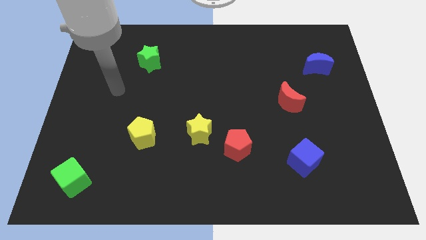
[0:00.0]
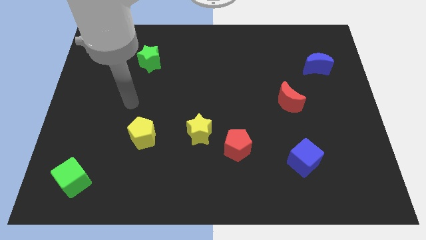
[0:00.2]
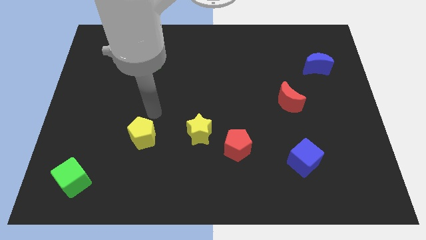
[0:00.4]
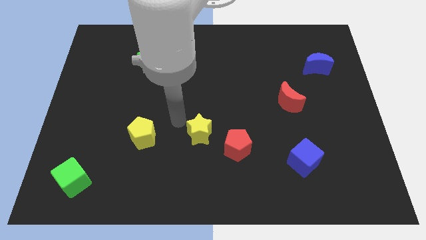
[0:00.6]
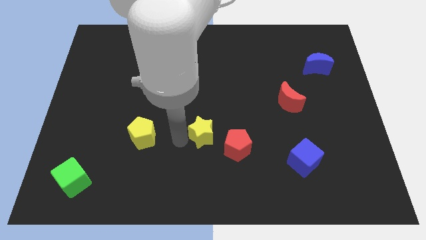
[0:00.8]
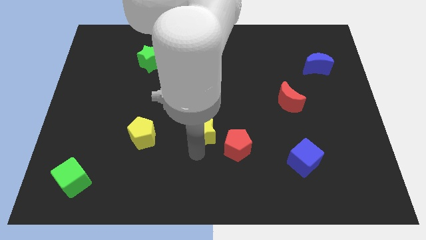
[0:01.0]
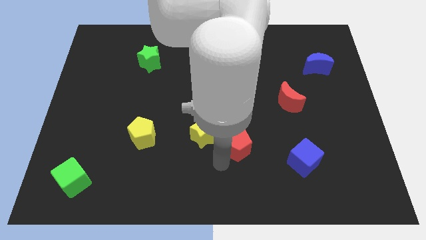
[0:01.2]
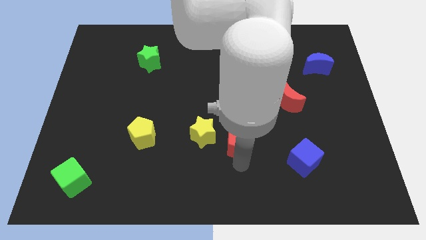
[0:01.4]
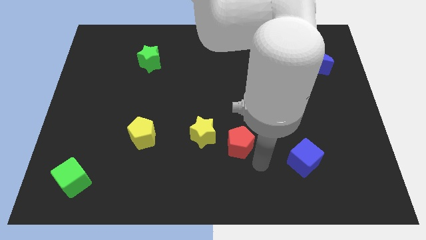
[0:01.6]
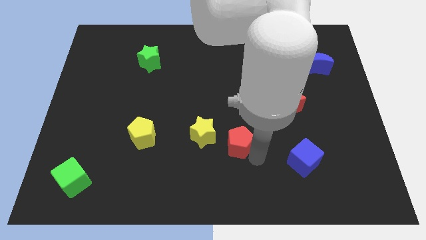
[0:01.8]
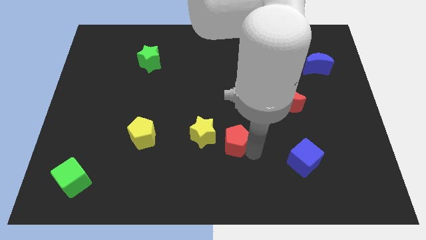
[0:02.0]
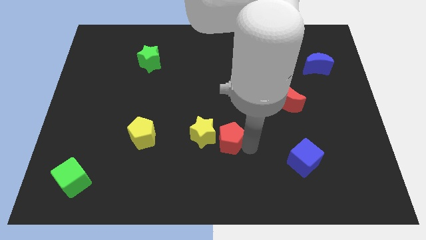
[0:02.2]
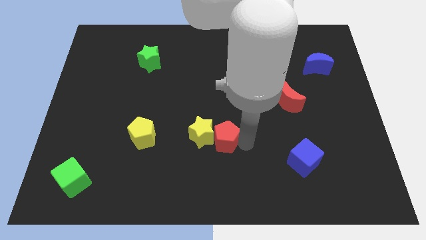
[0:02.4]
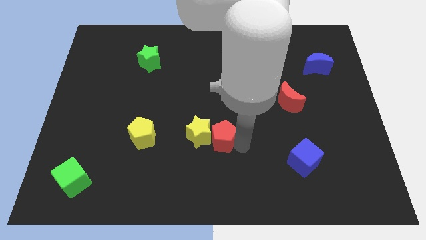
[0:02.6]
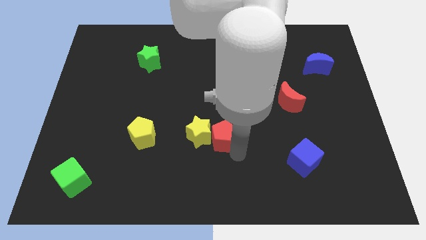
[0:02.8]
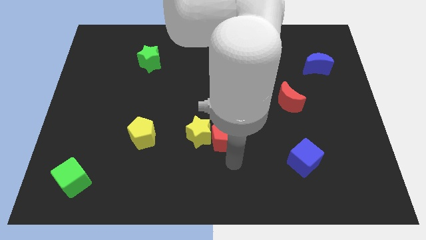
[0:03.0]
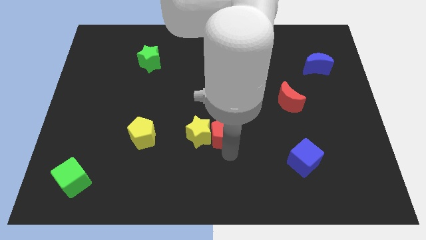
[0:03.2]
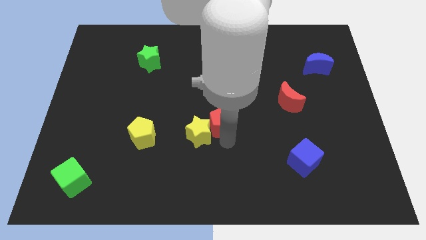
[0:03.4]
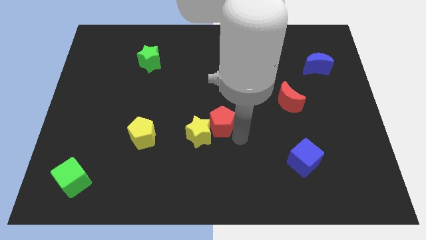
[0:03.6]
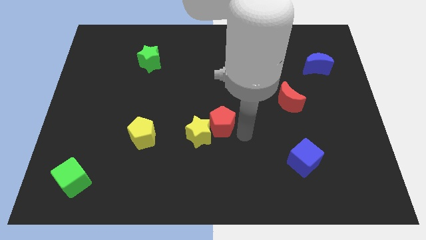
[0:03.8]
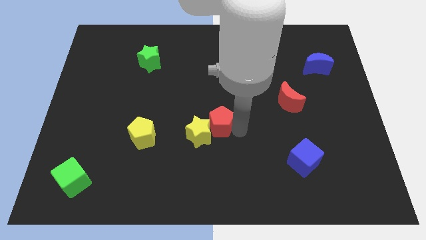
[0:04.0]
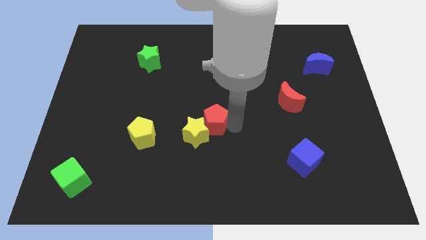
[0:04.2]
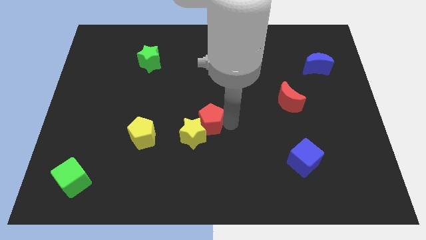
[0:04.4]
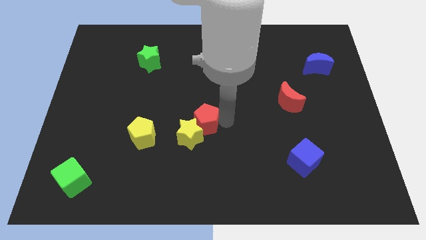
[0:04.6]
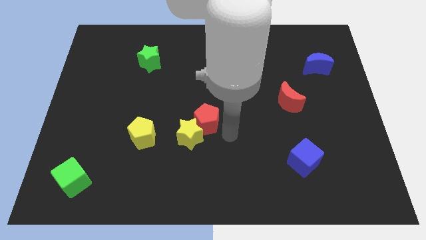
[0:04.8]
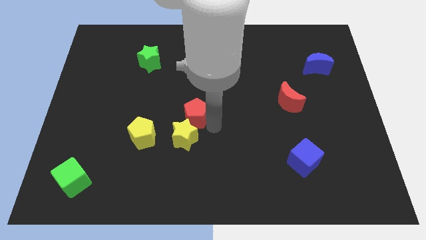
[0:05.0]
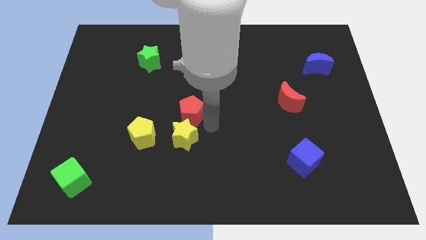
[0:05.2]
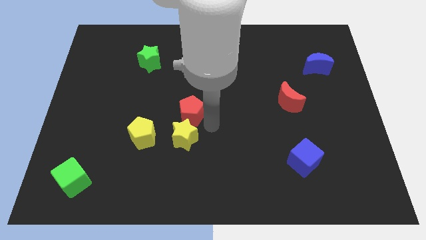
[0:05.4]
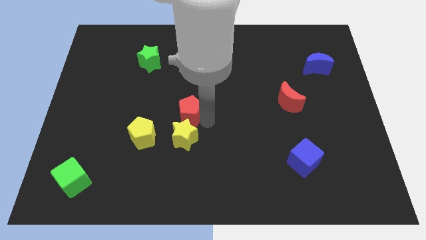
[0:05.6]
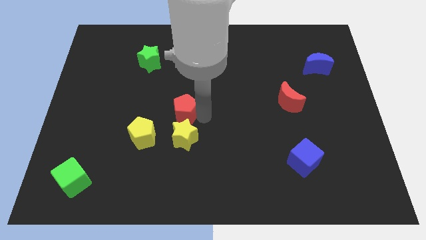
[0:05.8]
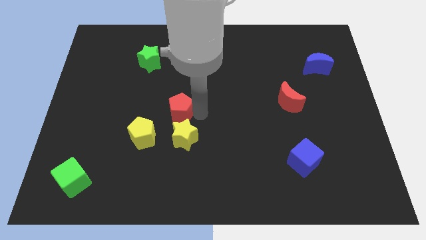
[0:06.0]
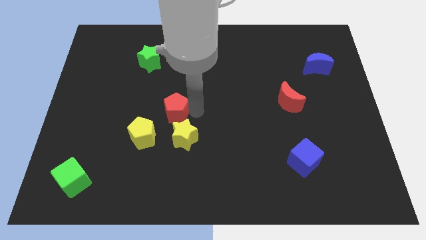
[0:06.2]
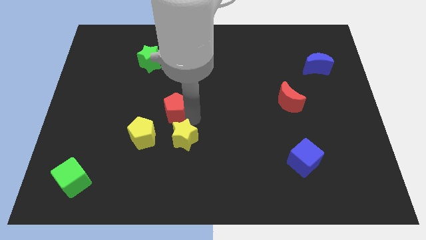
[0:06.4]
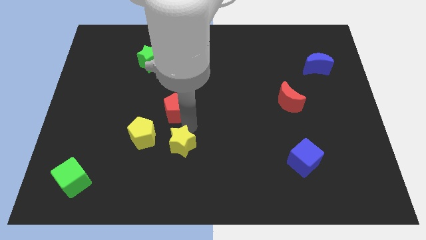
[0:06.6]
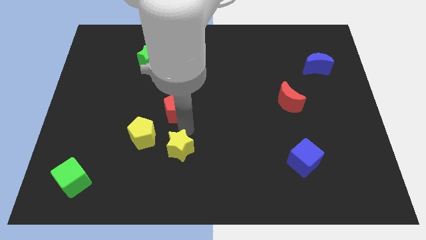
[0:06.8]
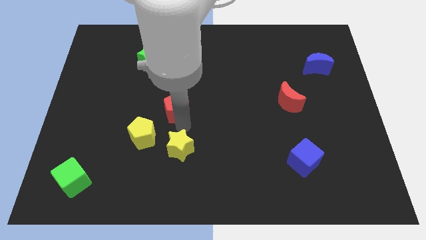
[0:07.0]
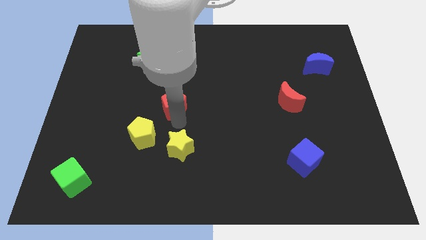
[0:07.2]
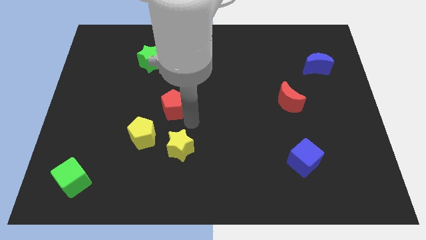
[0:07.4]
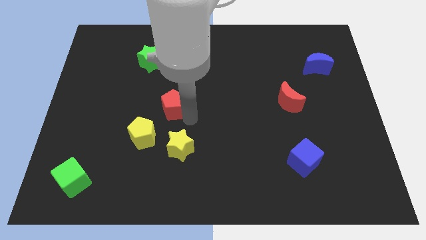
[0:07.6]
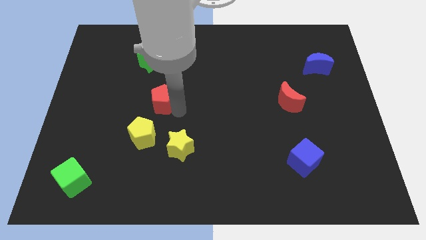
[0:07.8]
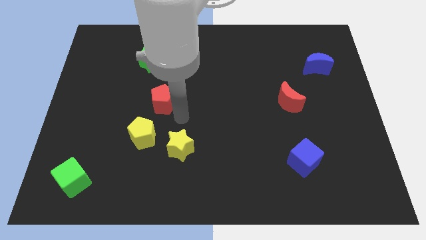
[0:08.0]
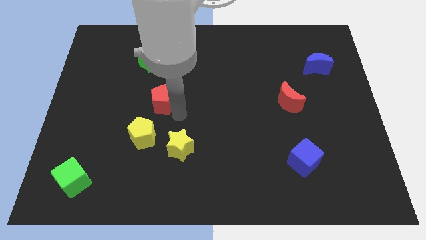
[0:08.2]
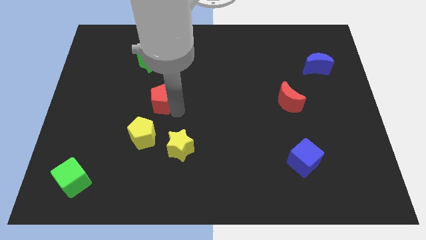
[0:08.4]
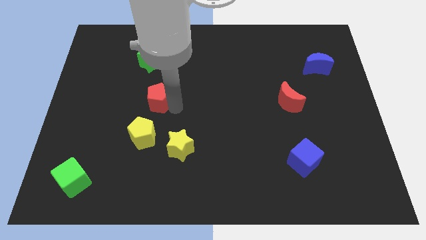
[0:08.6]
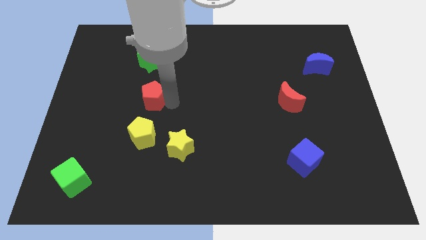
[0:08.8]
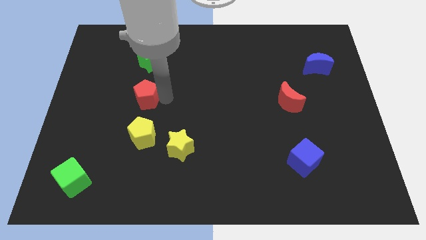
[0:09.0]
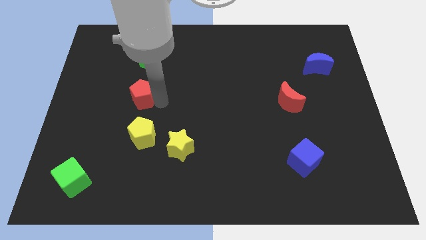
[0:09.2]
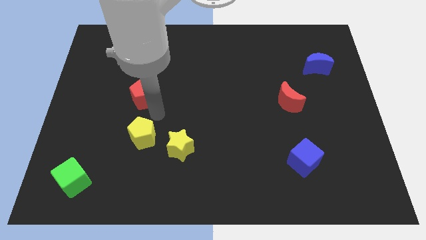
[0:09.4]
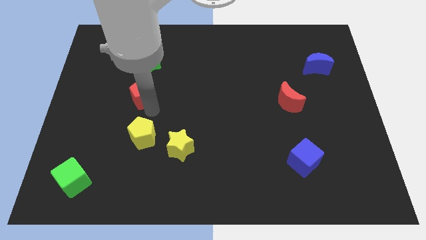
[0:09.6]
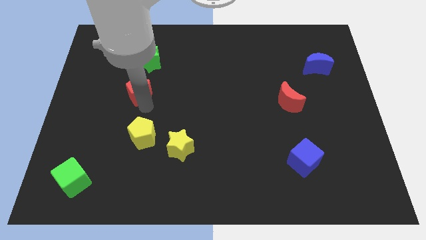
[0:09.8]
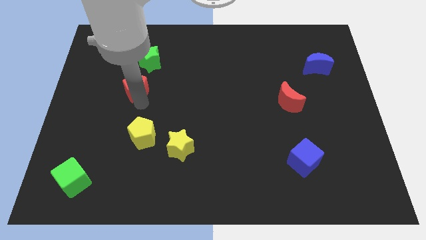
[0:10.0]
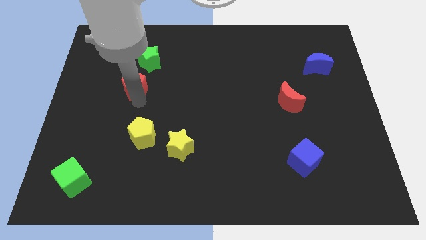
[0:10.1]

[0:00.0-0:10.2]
push the red pentagon to the bottom left of the green star

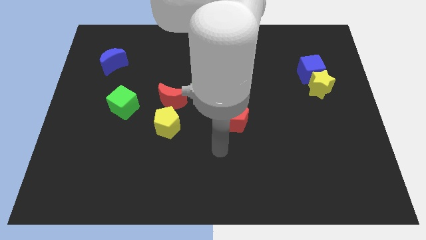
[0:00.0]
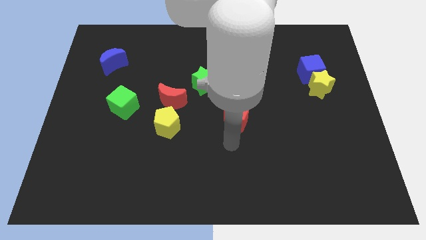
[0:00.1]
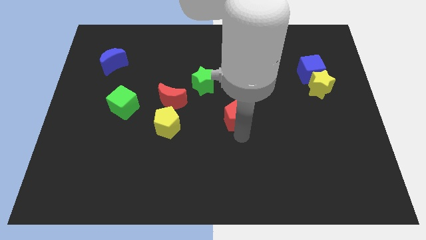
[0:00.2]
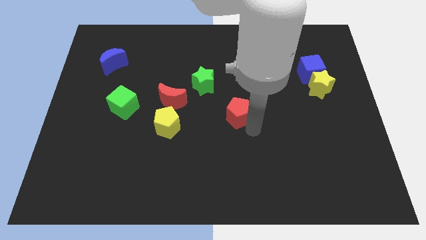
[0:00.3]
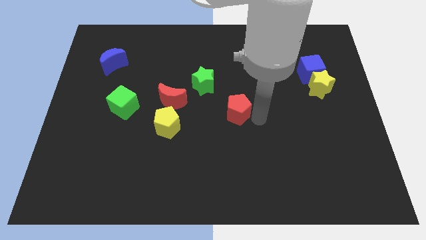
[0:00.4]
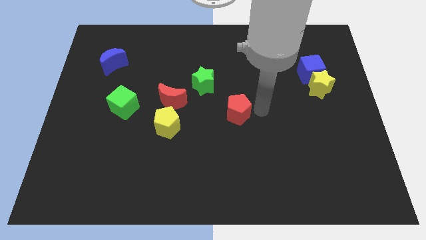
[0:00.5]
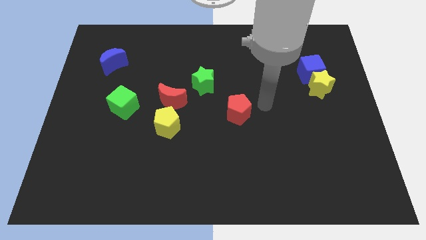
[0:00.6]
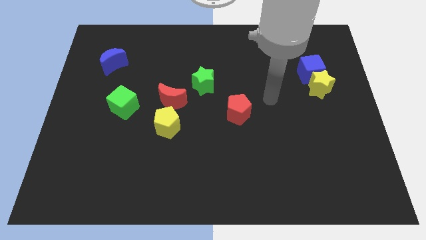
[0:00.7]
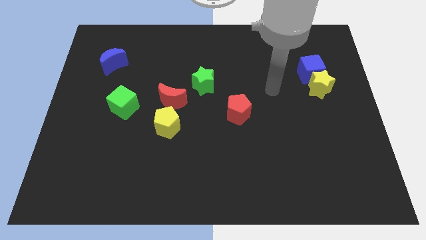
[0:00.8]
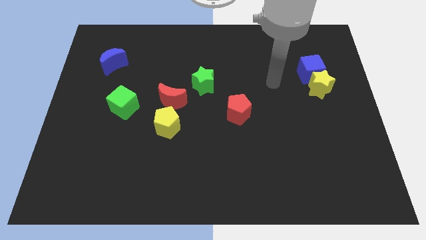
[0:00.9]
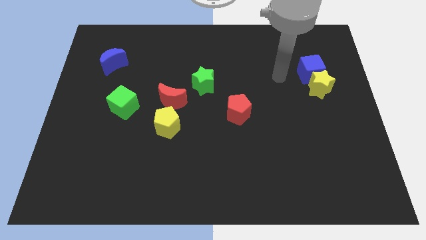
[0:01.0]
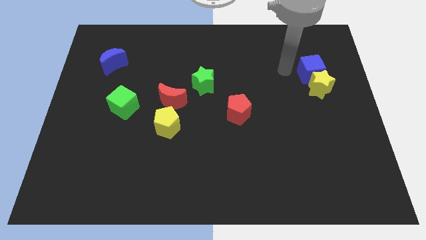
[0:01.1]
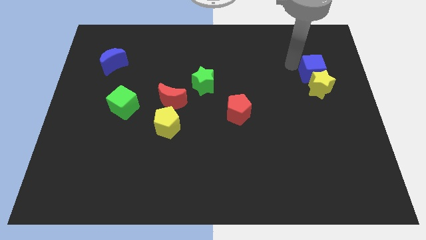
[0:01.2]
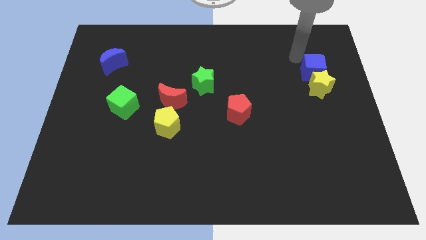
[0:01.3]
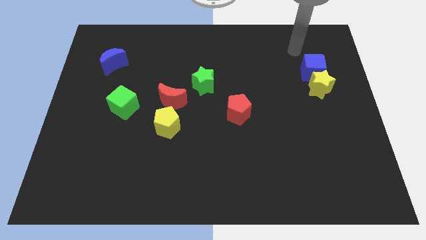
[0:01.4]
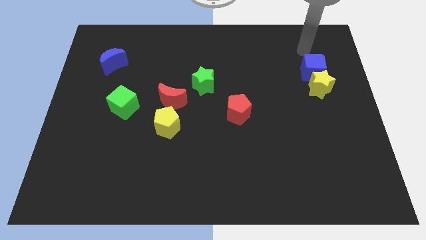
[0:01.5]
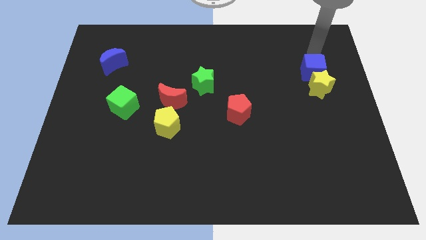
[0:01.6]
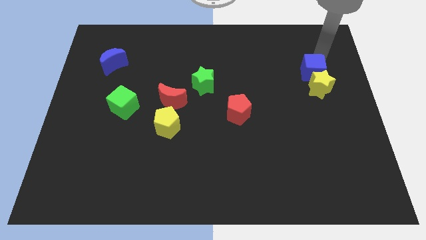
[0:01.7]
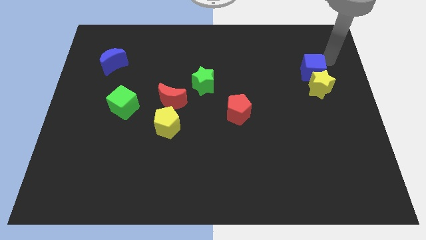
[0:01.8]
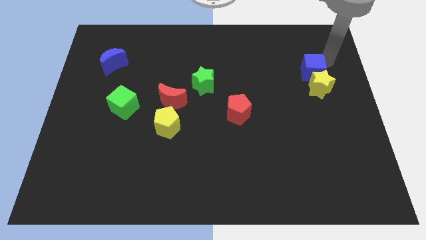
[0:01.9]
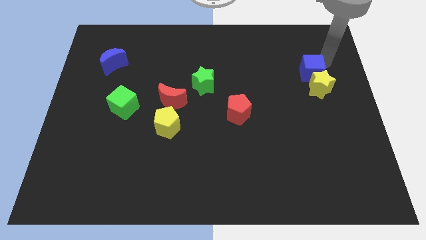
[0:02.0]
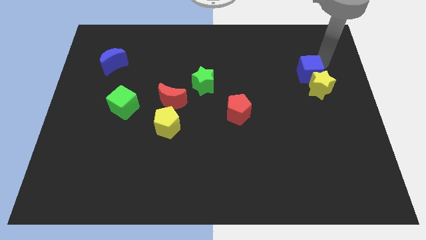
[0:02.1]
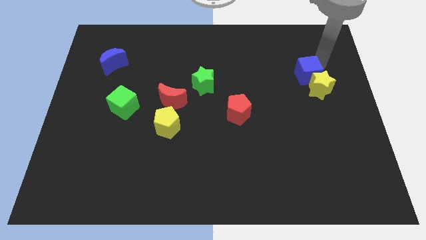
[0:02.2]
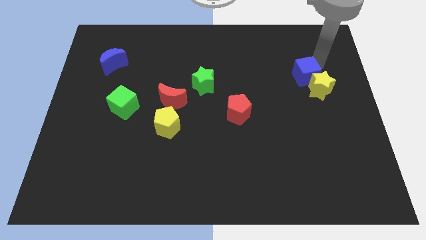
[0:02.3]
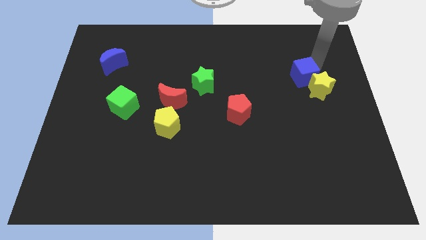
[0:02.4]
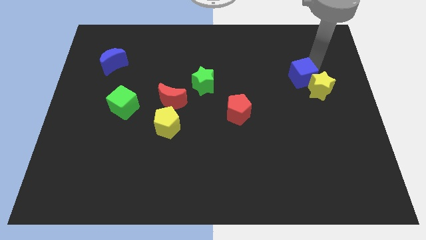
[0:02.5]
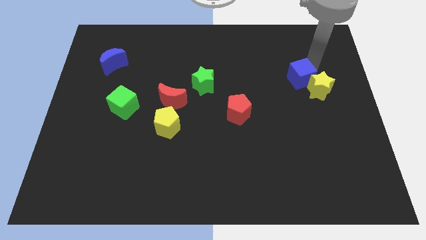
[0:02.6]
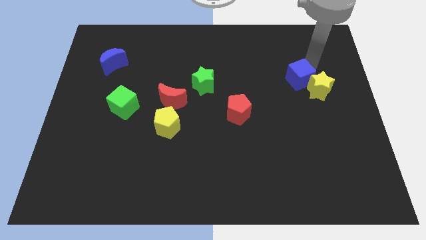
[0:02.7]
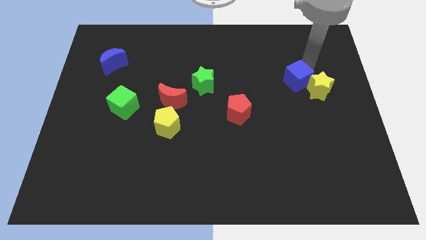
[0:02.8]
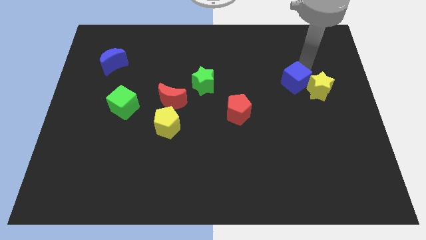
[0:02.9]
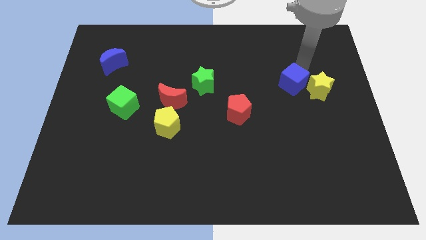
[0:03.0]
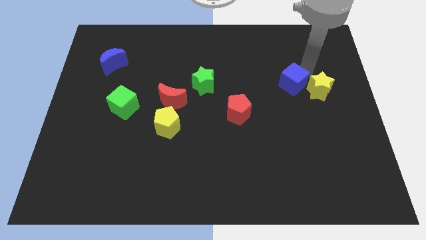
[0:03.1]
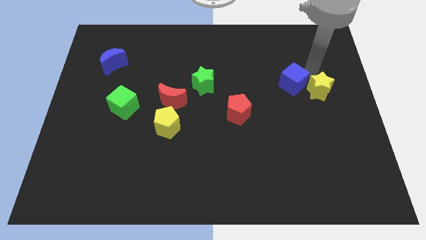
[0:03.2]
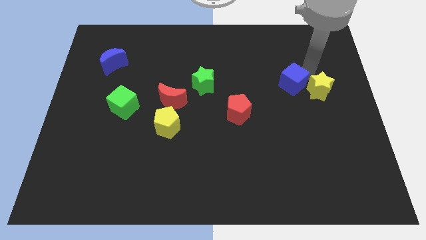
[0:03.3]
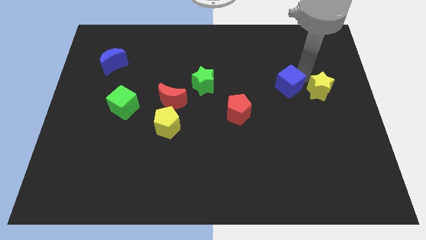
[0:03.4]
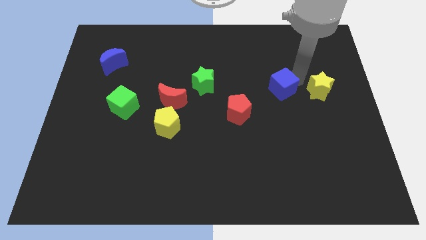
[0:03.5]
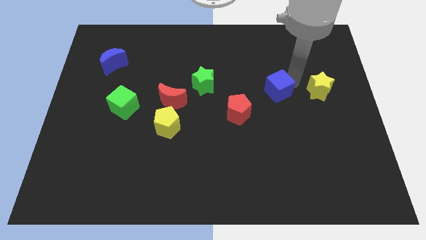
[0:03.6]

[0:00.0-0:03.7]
slide the blue cube to the top right side of the red pentagon
